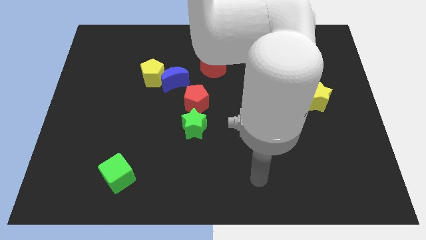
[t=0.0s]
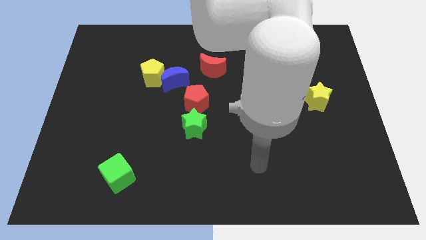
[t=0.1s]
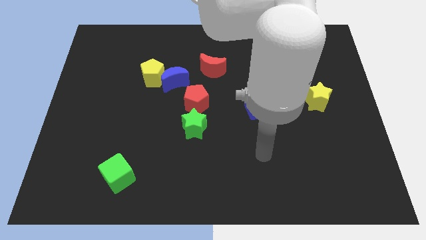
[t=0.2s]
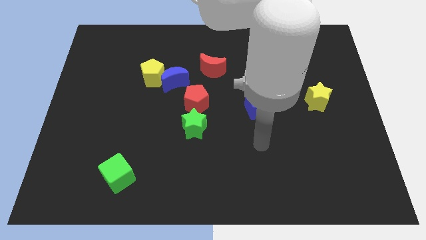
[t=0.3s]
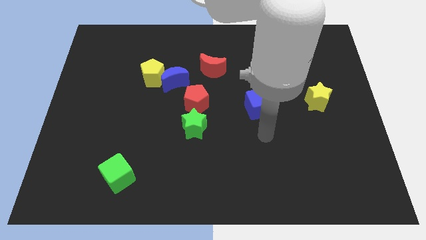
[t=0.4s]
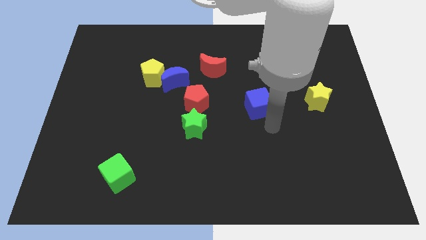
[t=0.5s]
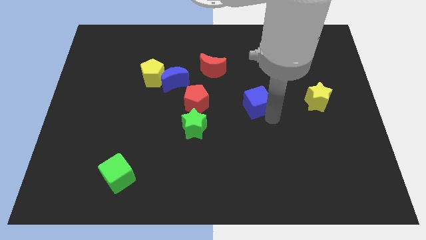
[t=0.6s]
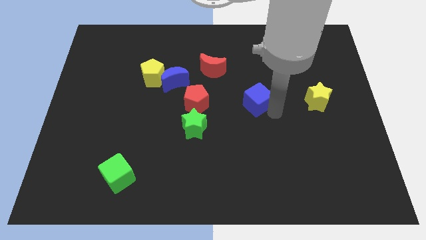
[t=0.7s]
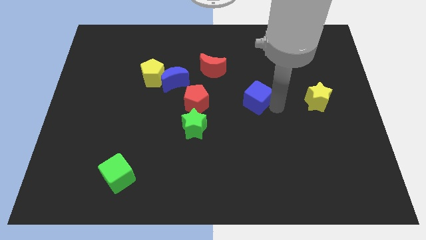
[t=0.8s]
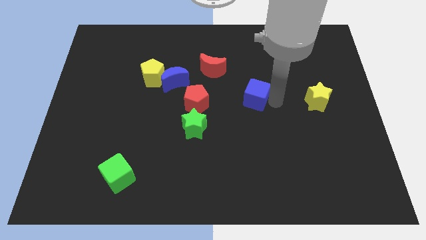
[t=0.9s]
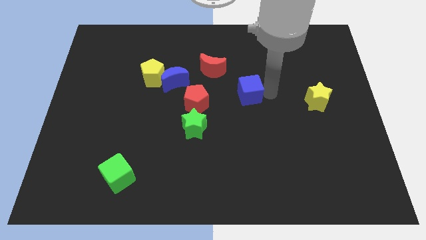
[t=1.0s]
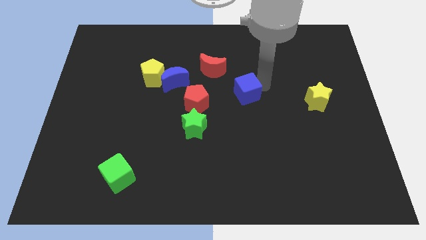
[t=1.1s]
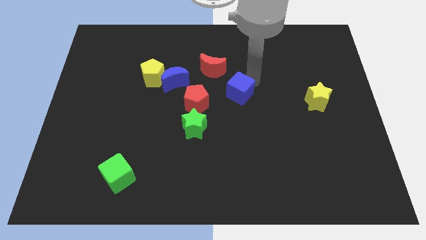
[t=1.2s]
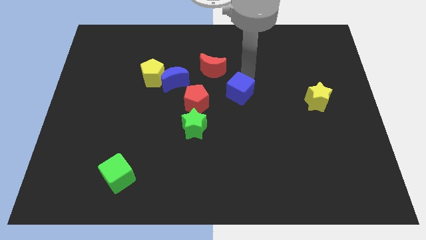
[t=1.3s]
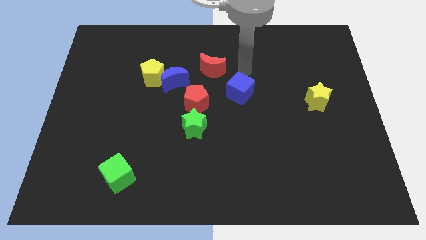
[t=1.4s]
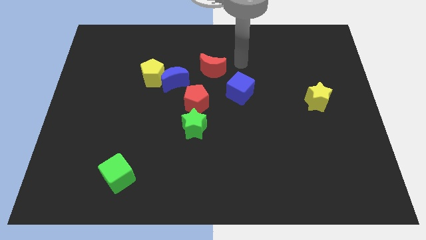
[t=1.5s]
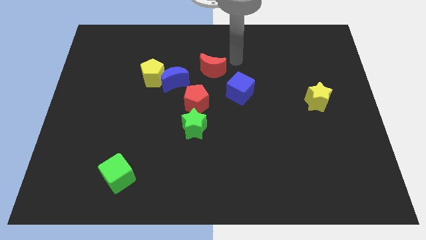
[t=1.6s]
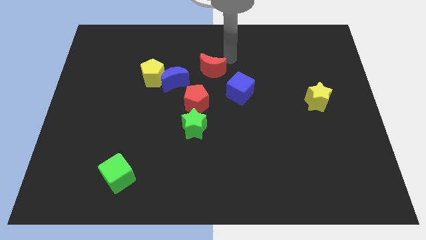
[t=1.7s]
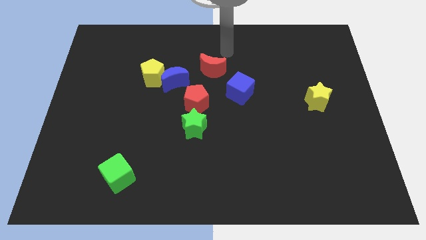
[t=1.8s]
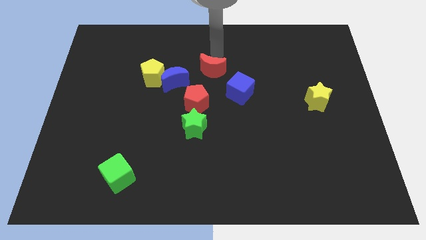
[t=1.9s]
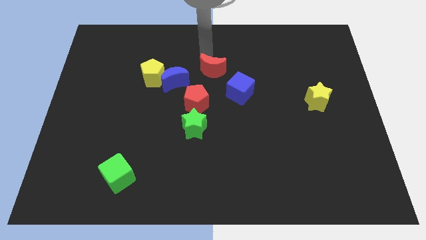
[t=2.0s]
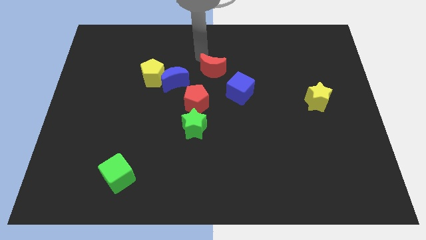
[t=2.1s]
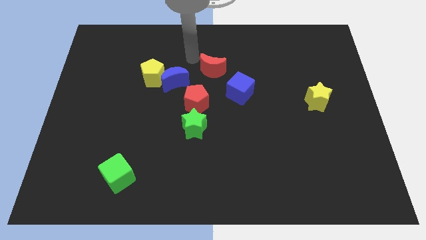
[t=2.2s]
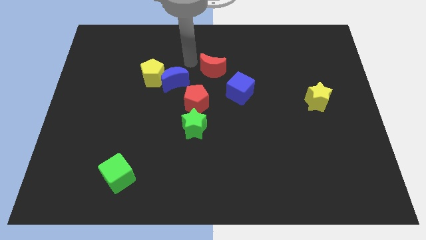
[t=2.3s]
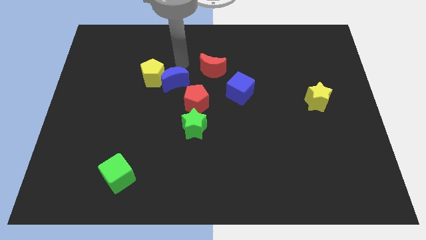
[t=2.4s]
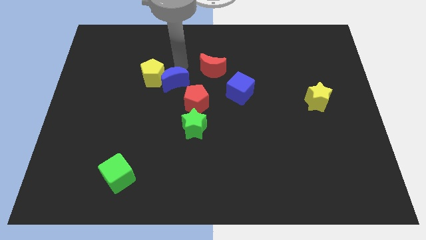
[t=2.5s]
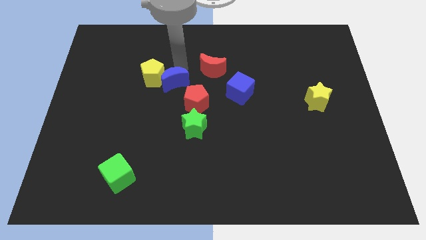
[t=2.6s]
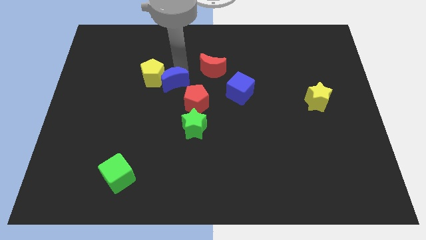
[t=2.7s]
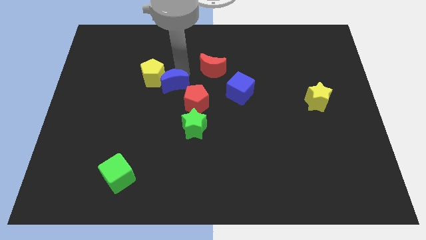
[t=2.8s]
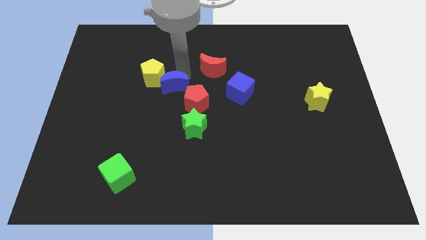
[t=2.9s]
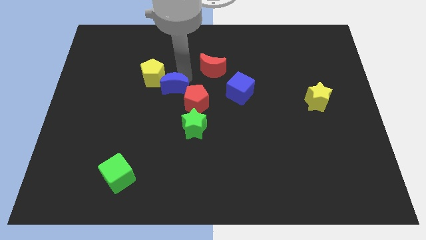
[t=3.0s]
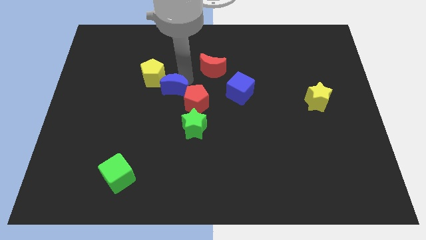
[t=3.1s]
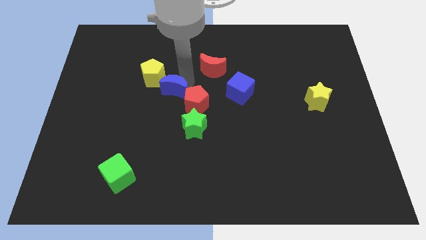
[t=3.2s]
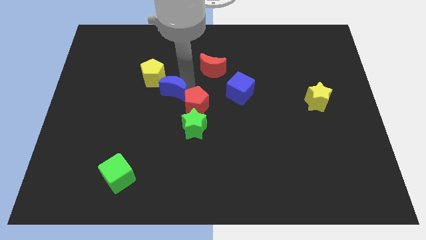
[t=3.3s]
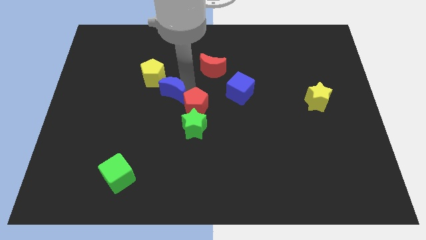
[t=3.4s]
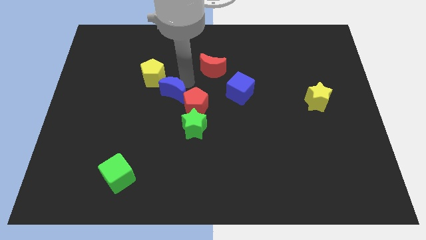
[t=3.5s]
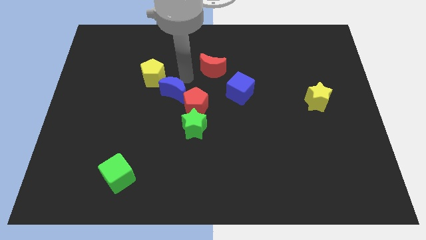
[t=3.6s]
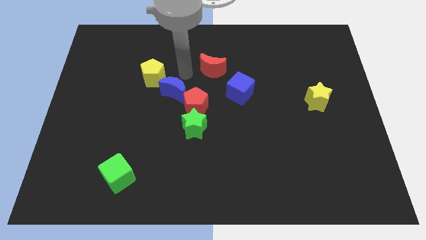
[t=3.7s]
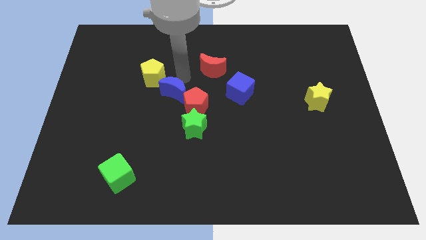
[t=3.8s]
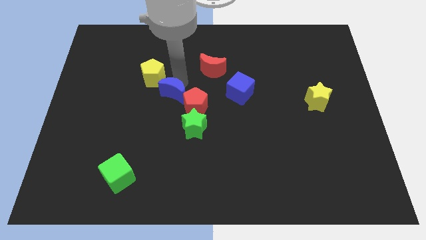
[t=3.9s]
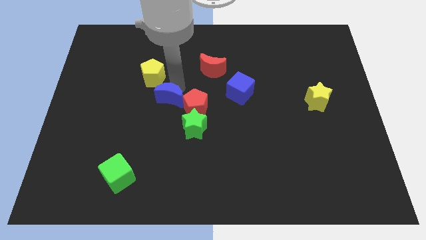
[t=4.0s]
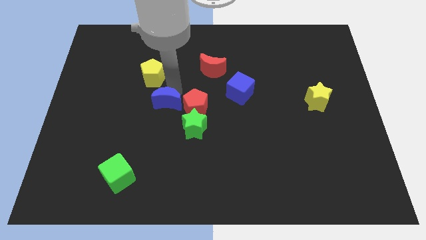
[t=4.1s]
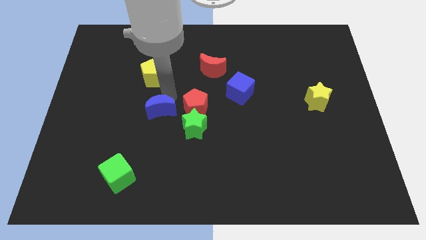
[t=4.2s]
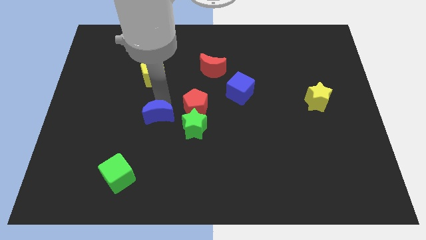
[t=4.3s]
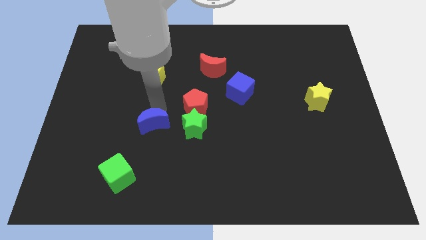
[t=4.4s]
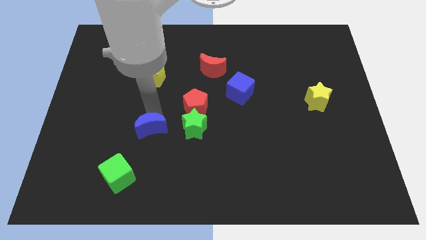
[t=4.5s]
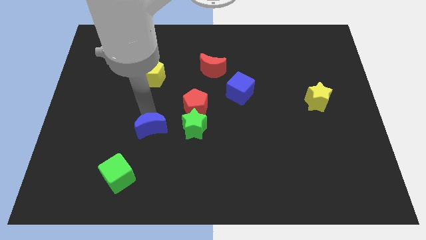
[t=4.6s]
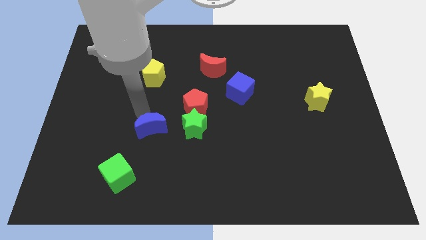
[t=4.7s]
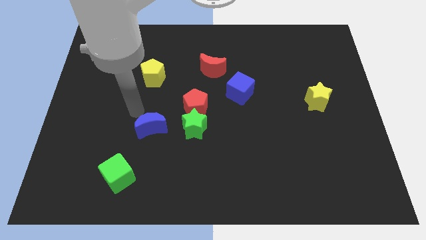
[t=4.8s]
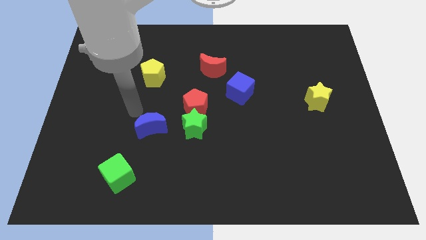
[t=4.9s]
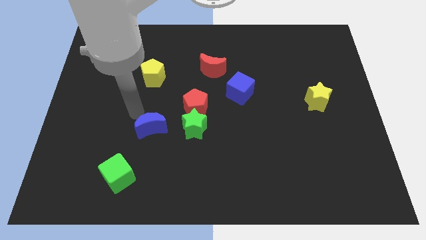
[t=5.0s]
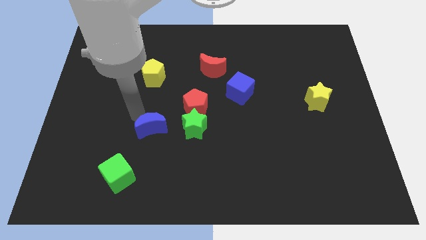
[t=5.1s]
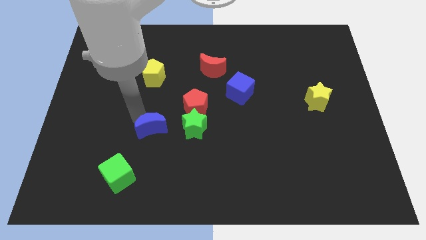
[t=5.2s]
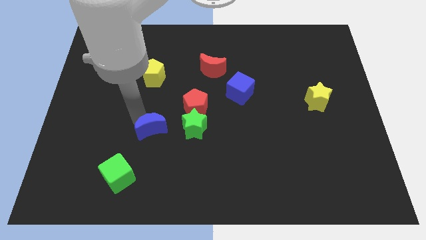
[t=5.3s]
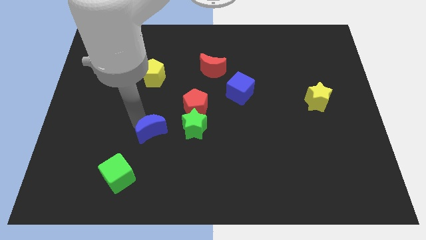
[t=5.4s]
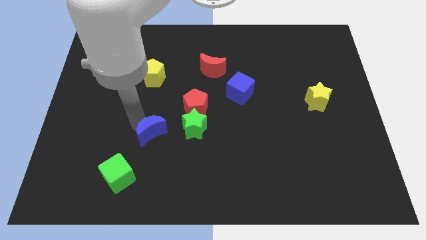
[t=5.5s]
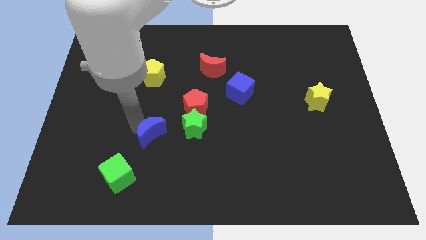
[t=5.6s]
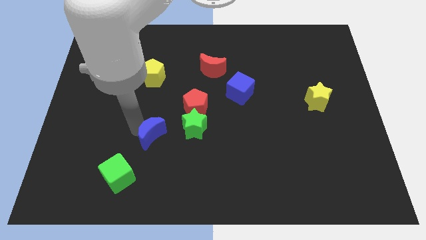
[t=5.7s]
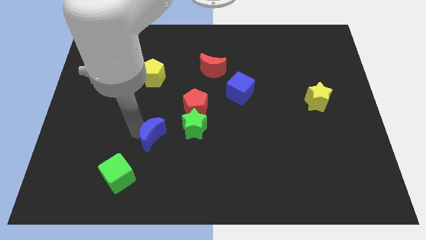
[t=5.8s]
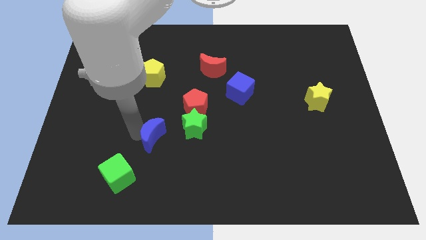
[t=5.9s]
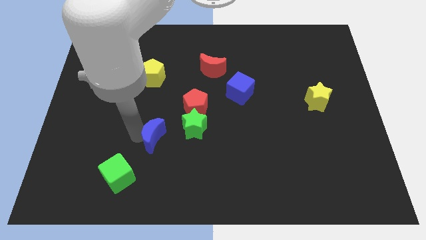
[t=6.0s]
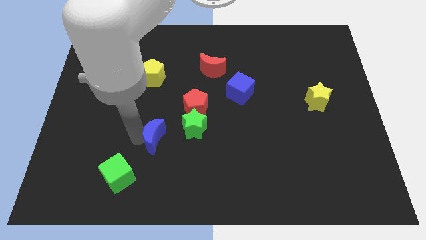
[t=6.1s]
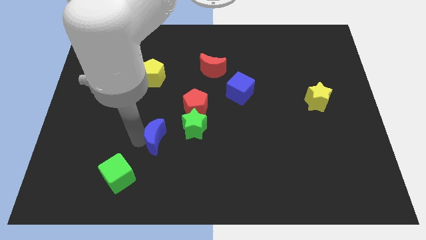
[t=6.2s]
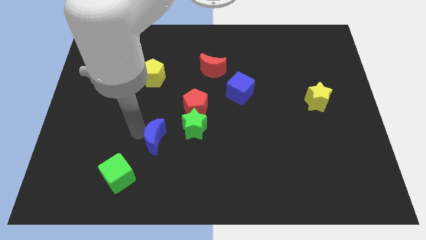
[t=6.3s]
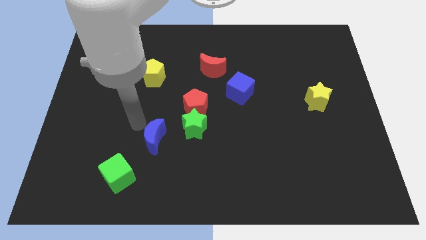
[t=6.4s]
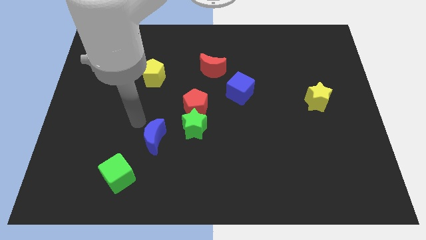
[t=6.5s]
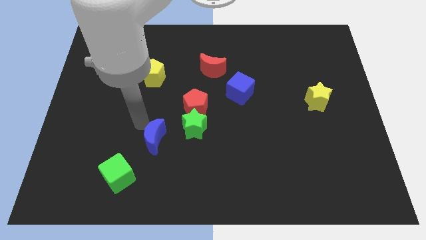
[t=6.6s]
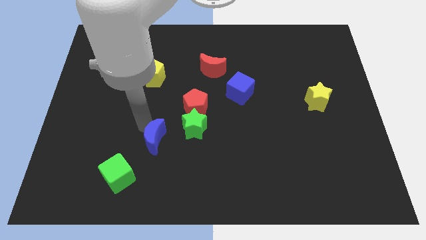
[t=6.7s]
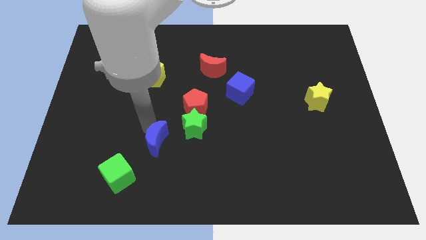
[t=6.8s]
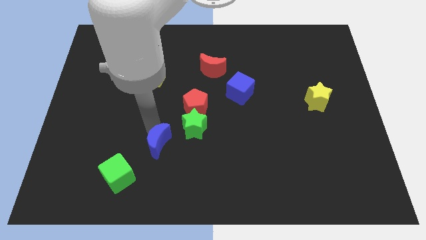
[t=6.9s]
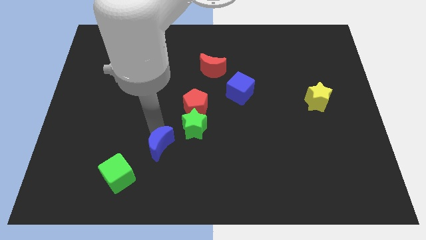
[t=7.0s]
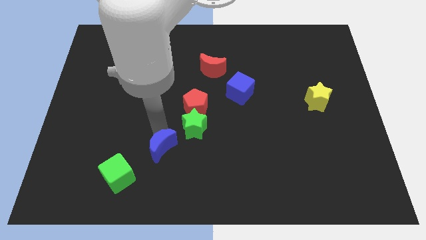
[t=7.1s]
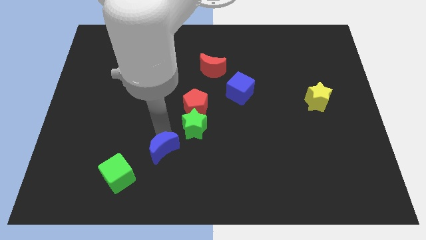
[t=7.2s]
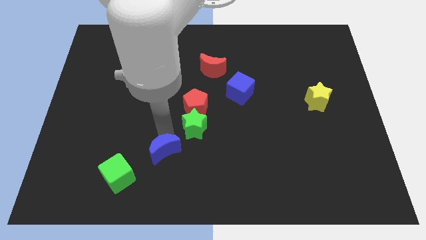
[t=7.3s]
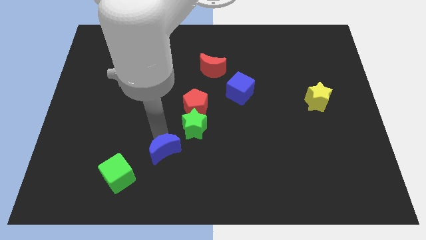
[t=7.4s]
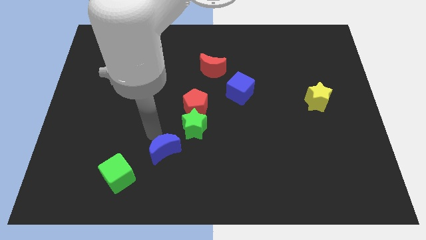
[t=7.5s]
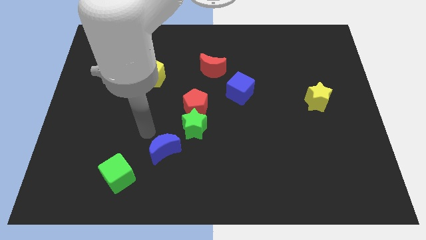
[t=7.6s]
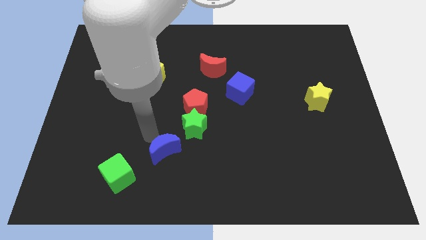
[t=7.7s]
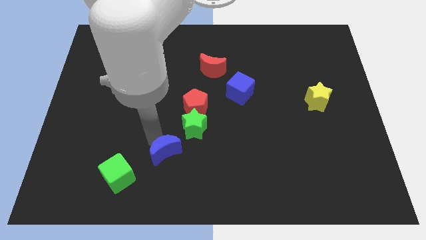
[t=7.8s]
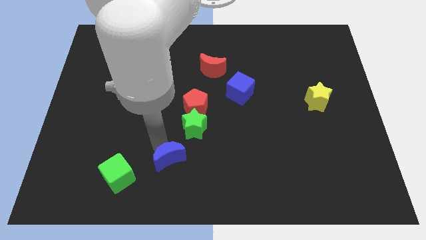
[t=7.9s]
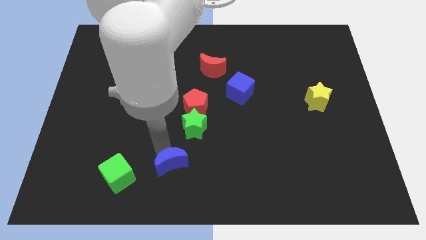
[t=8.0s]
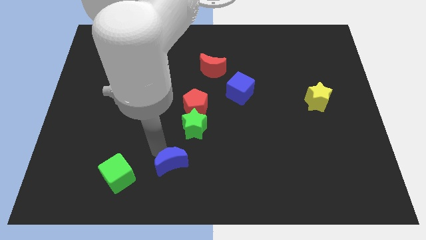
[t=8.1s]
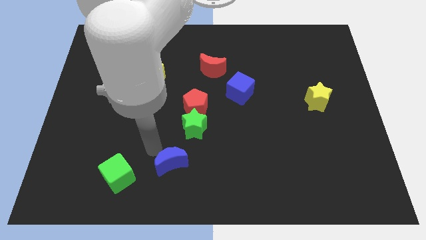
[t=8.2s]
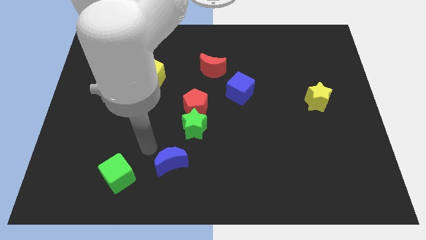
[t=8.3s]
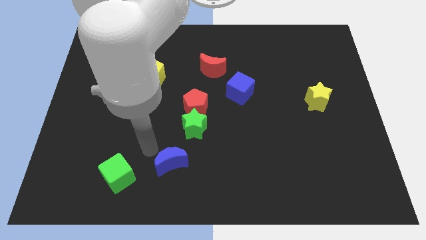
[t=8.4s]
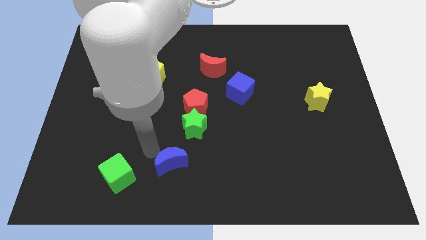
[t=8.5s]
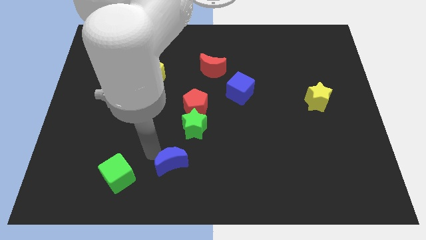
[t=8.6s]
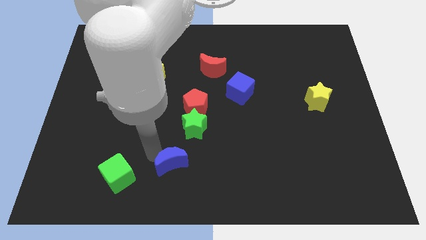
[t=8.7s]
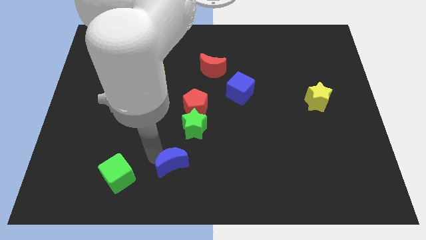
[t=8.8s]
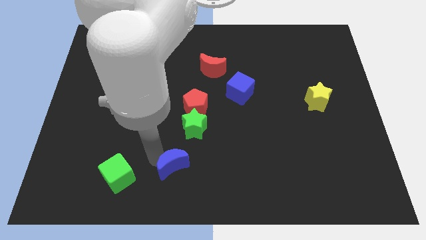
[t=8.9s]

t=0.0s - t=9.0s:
move the blue moon to the bottom side
